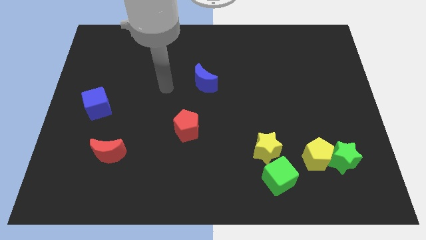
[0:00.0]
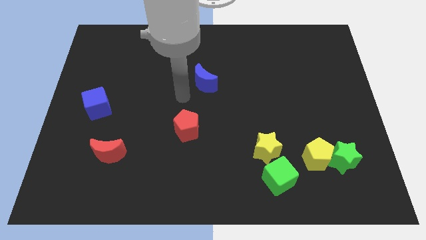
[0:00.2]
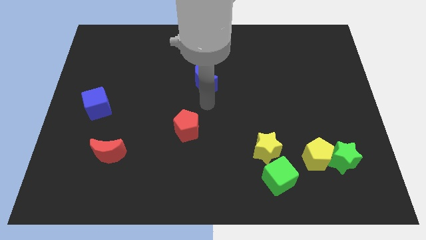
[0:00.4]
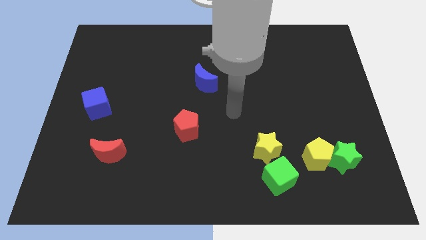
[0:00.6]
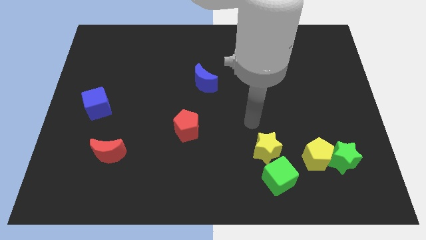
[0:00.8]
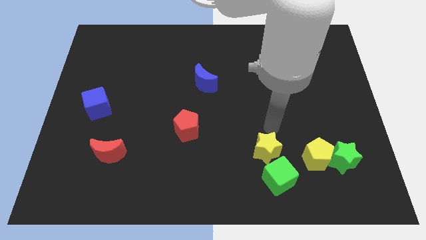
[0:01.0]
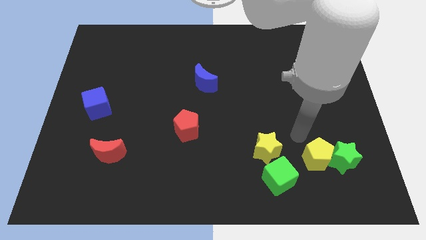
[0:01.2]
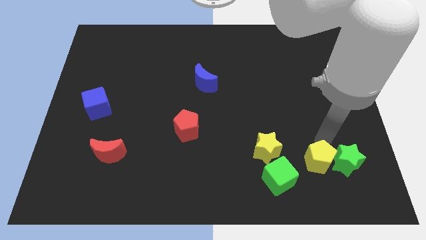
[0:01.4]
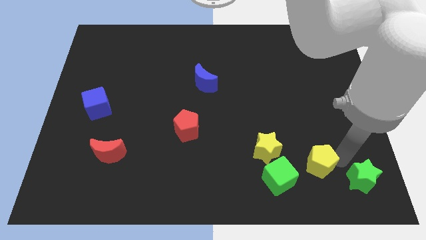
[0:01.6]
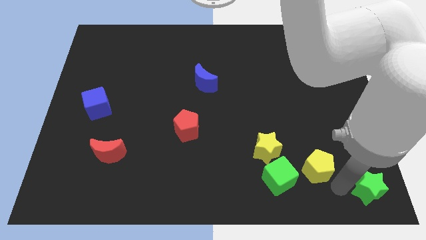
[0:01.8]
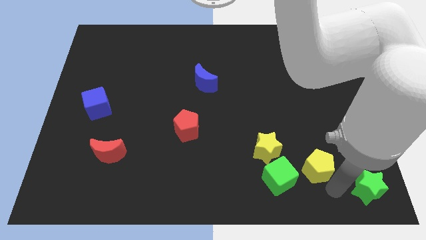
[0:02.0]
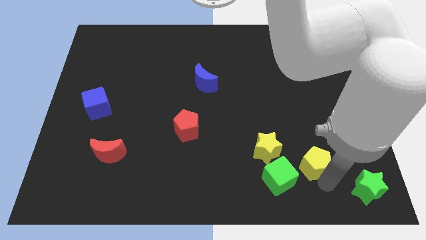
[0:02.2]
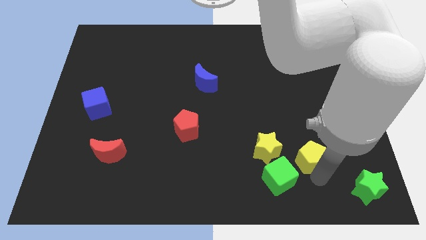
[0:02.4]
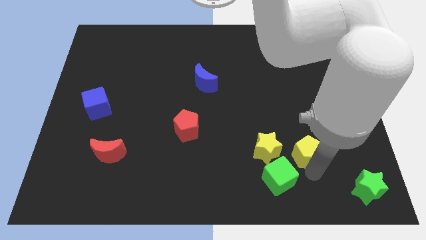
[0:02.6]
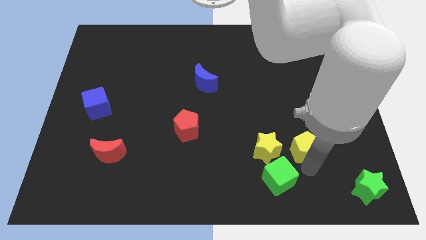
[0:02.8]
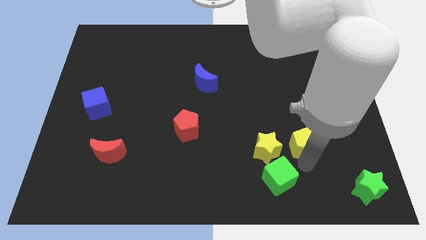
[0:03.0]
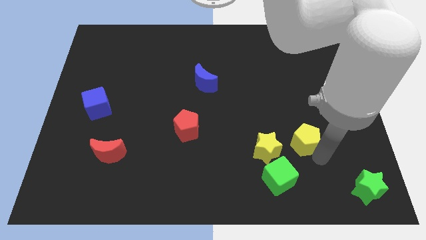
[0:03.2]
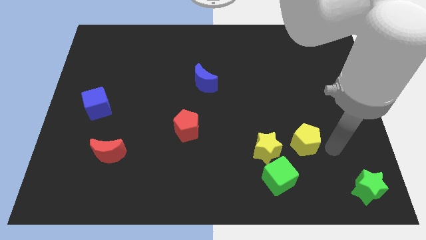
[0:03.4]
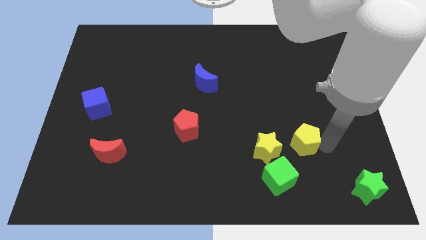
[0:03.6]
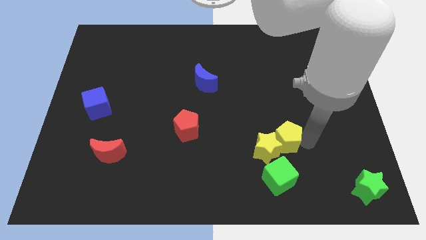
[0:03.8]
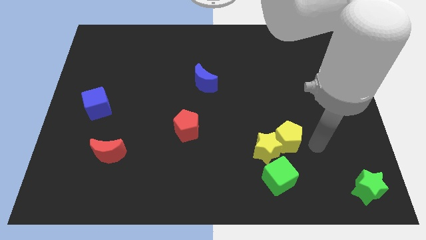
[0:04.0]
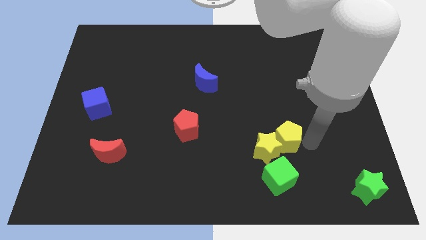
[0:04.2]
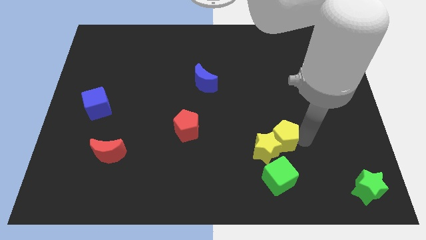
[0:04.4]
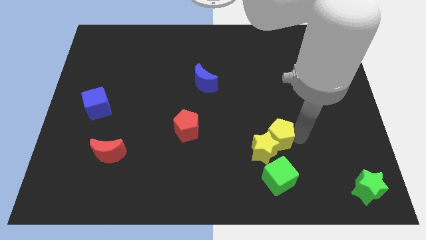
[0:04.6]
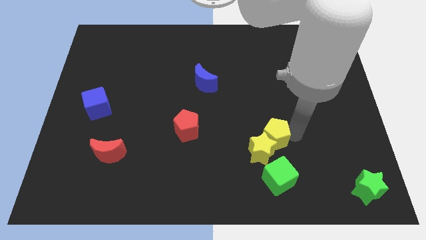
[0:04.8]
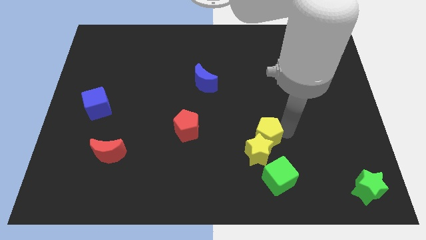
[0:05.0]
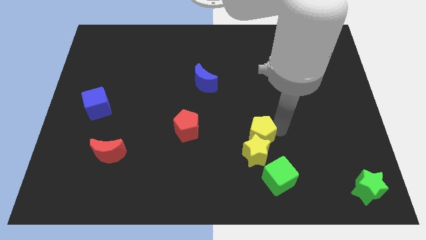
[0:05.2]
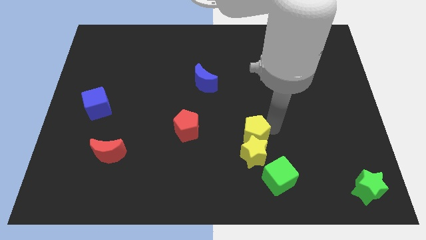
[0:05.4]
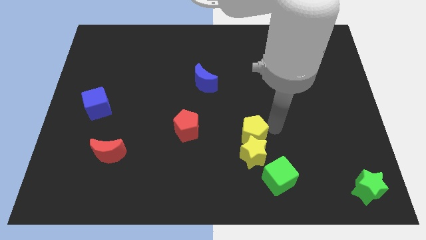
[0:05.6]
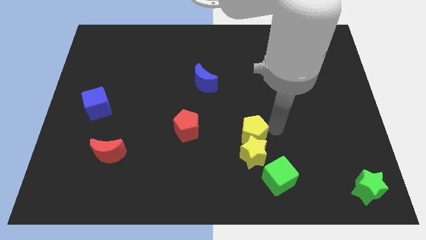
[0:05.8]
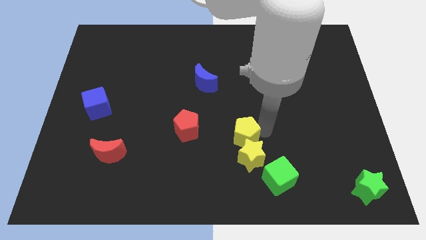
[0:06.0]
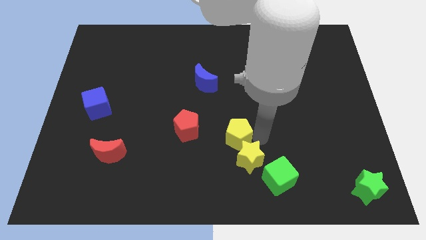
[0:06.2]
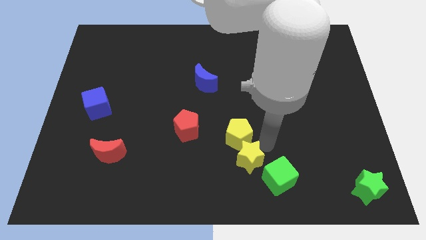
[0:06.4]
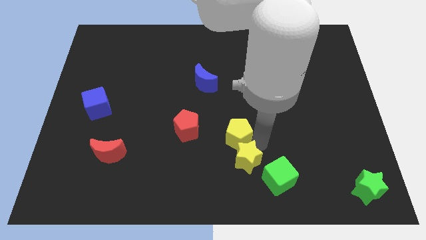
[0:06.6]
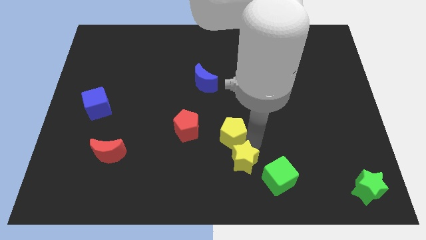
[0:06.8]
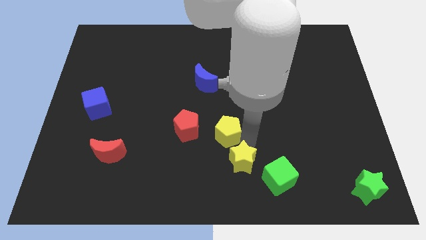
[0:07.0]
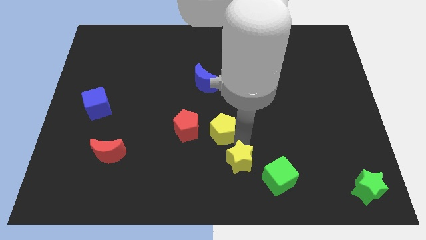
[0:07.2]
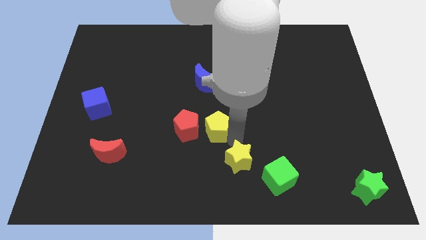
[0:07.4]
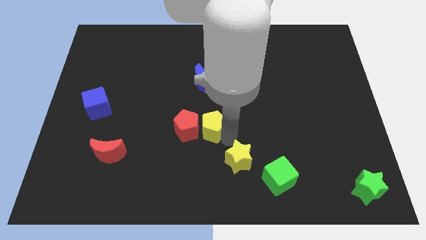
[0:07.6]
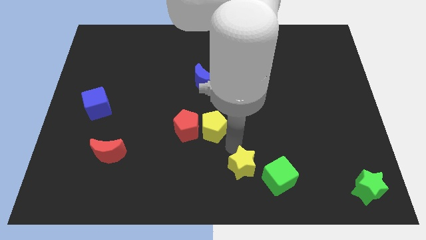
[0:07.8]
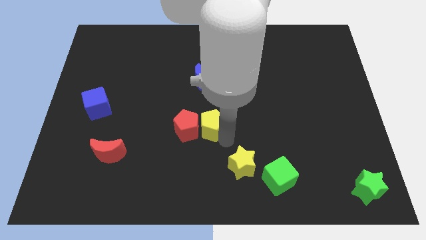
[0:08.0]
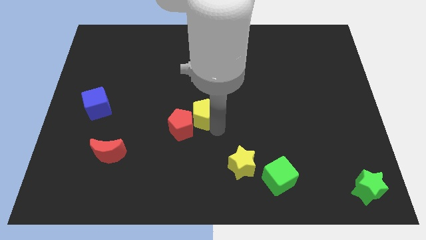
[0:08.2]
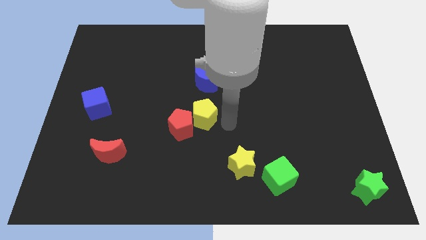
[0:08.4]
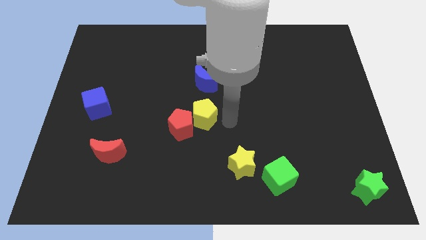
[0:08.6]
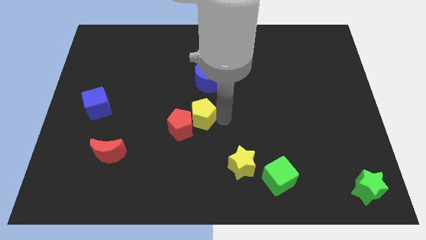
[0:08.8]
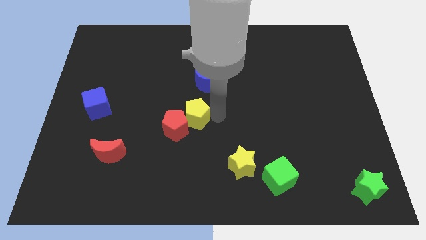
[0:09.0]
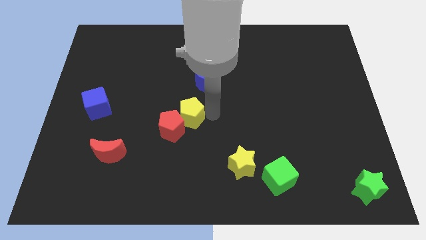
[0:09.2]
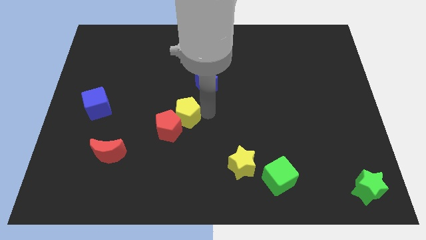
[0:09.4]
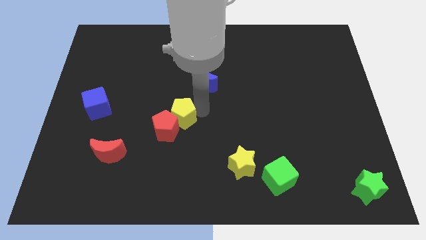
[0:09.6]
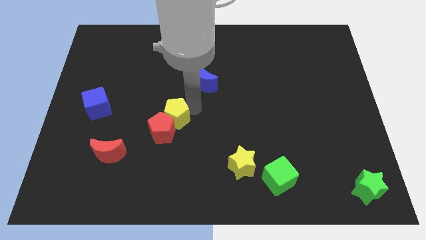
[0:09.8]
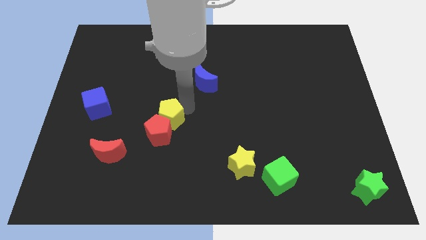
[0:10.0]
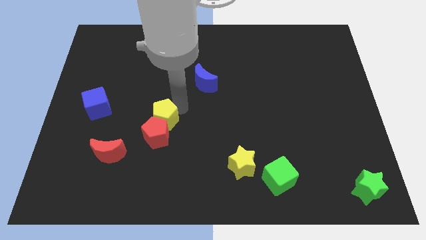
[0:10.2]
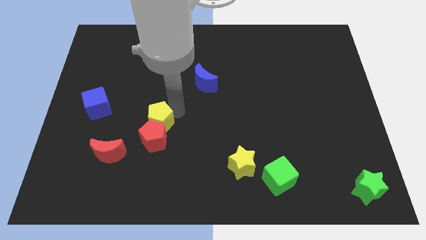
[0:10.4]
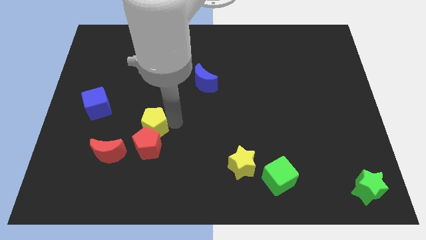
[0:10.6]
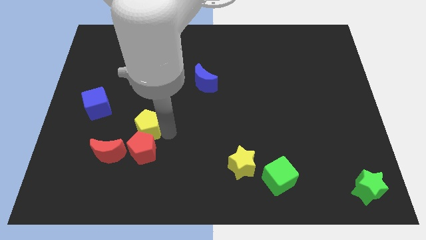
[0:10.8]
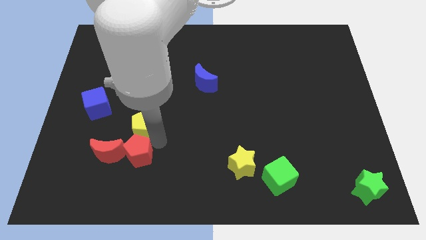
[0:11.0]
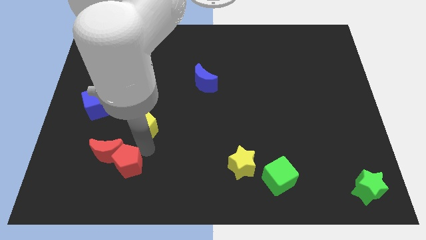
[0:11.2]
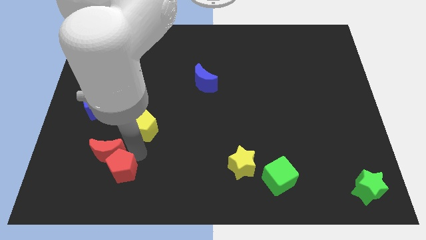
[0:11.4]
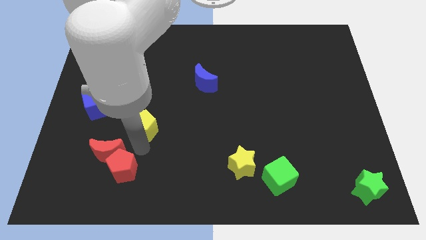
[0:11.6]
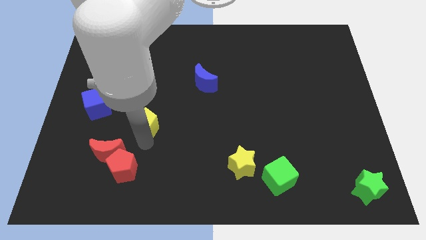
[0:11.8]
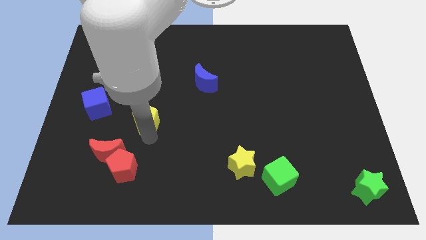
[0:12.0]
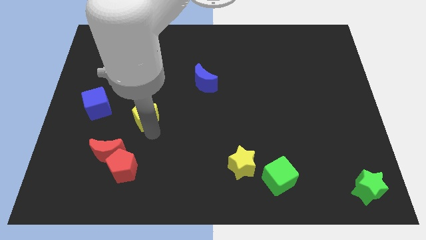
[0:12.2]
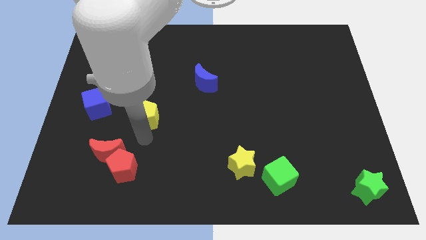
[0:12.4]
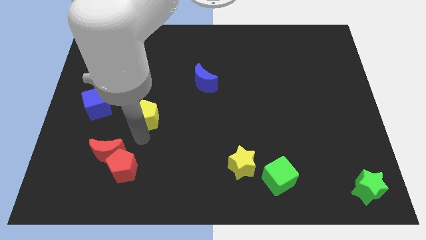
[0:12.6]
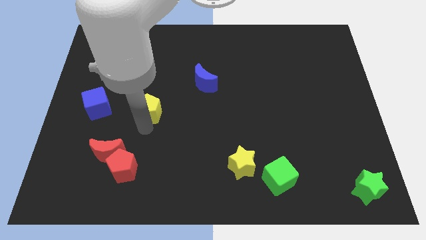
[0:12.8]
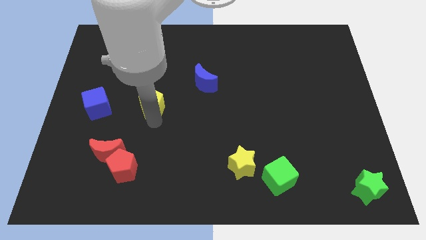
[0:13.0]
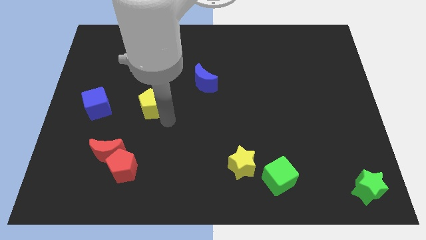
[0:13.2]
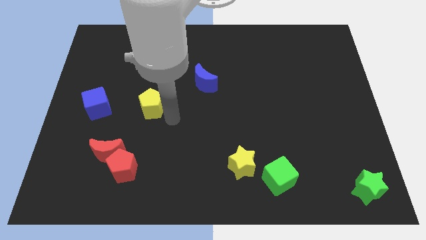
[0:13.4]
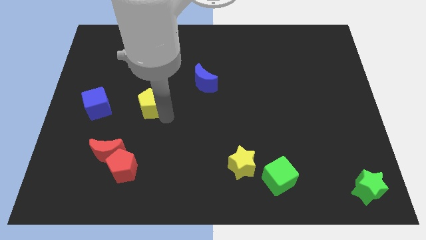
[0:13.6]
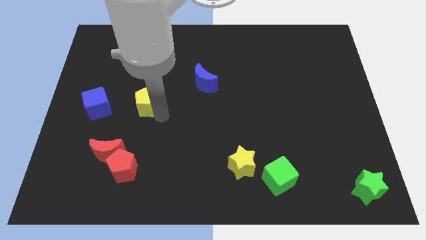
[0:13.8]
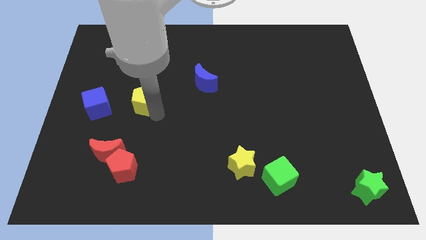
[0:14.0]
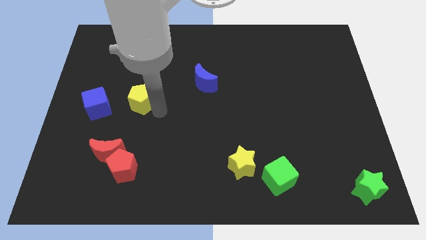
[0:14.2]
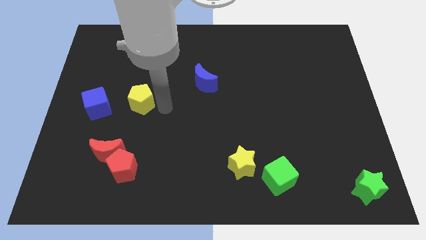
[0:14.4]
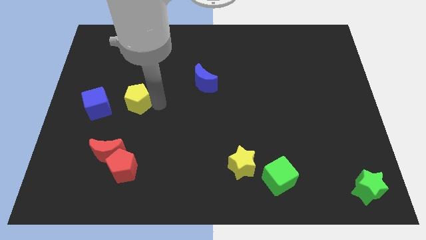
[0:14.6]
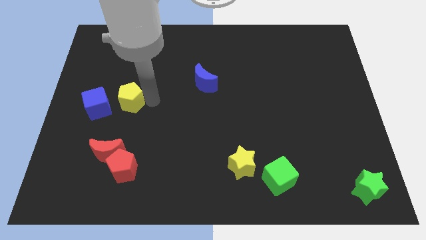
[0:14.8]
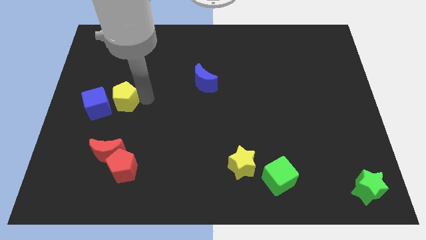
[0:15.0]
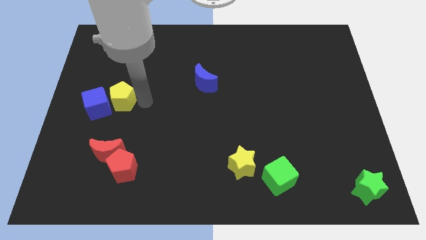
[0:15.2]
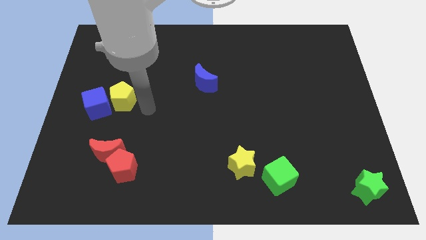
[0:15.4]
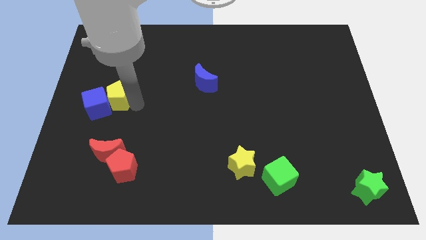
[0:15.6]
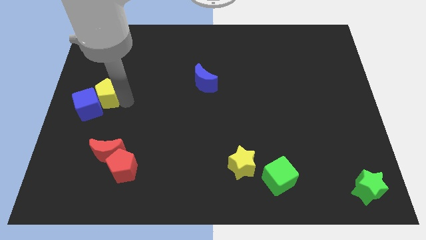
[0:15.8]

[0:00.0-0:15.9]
move the yellow pentagon to the center left
